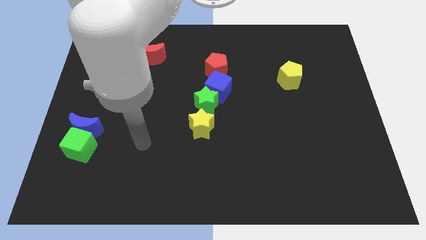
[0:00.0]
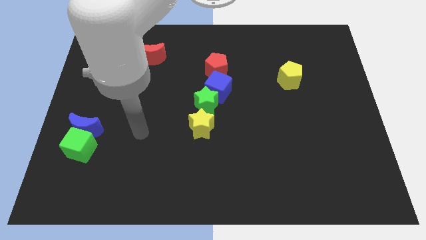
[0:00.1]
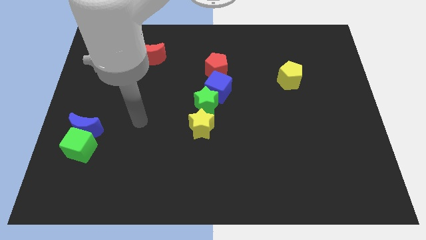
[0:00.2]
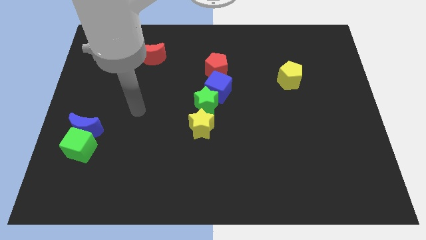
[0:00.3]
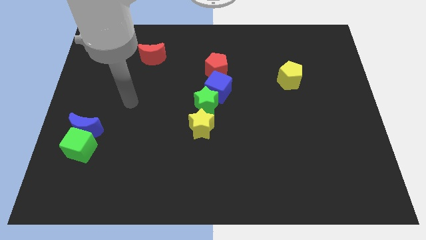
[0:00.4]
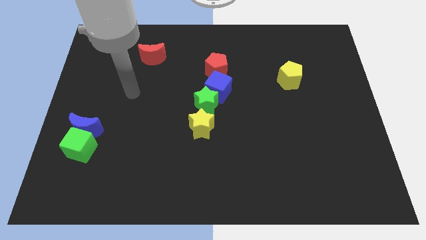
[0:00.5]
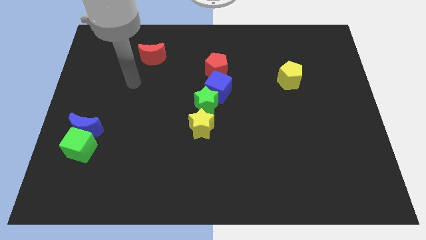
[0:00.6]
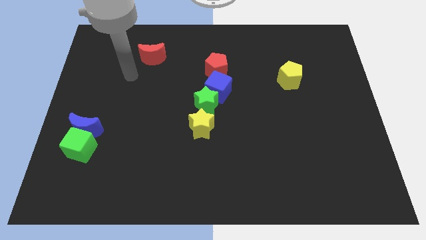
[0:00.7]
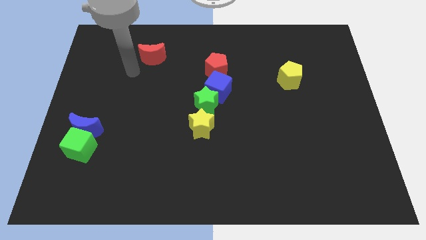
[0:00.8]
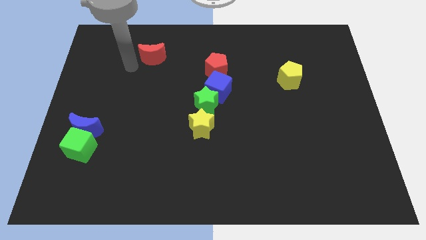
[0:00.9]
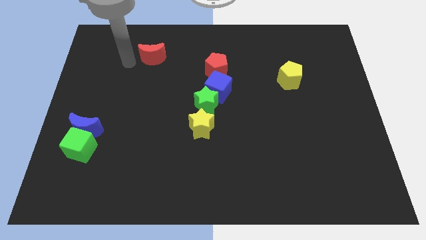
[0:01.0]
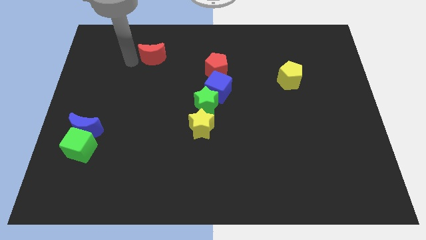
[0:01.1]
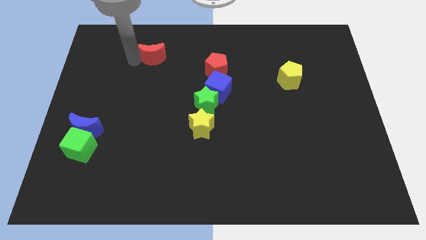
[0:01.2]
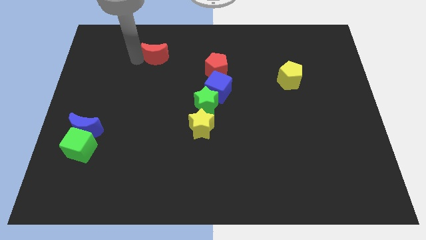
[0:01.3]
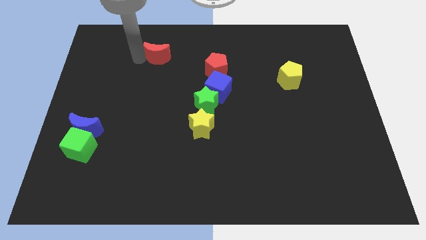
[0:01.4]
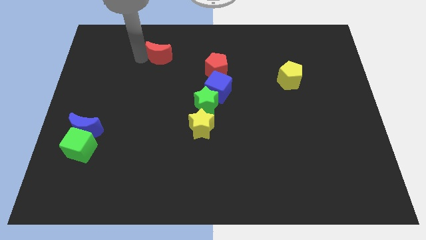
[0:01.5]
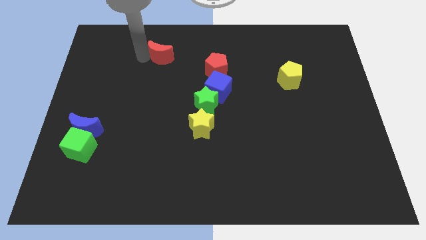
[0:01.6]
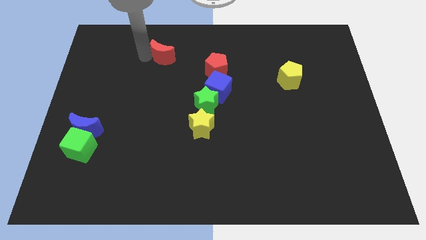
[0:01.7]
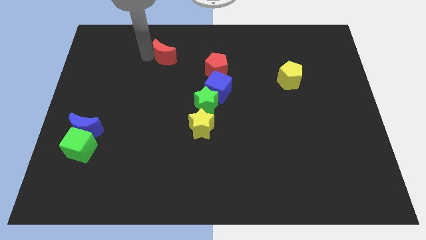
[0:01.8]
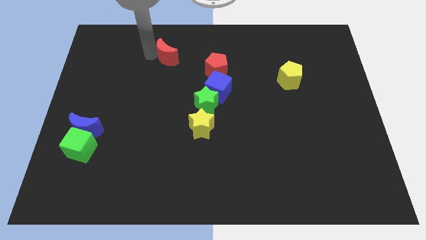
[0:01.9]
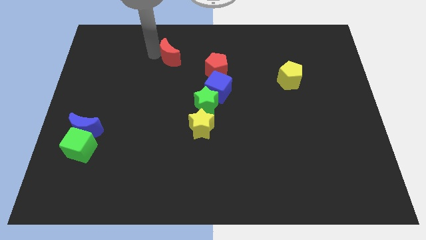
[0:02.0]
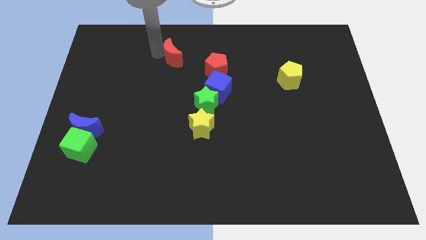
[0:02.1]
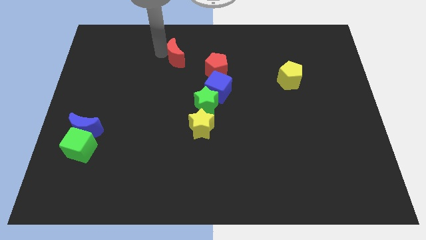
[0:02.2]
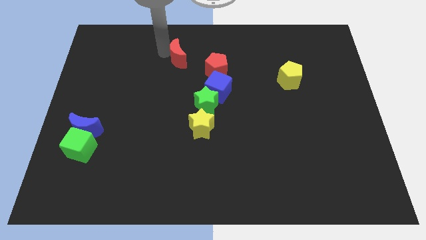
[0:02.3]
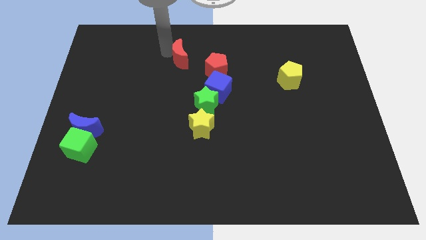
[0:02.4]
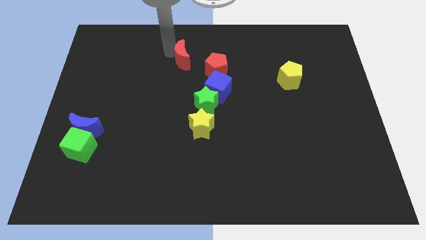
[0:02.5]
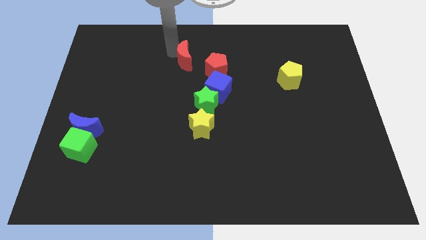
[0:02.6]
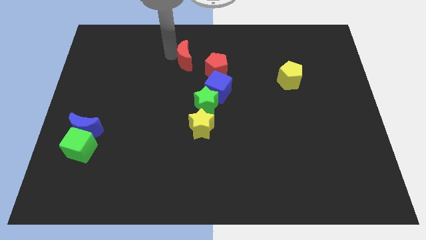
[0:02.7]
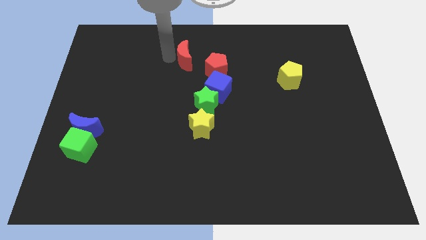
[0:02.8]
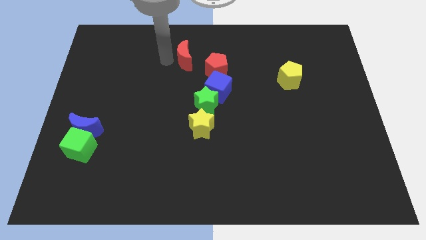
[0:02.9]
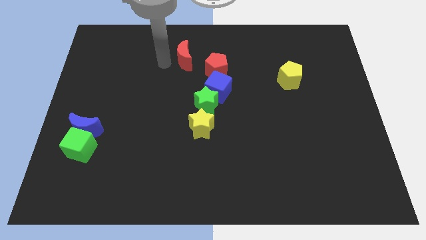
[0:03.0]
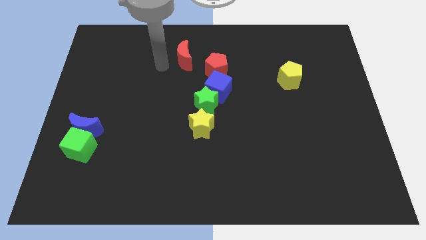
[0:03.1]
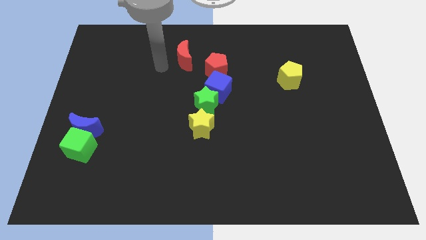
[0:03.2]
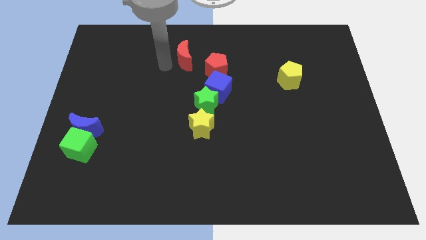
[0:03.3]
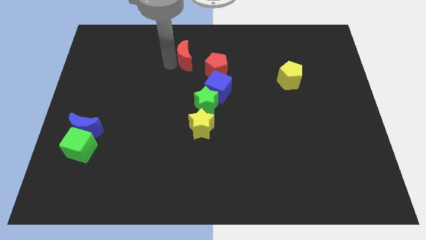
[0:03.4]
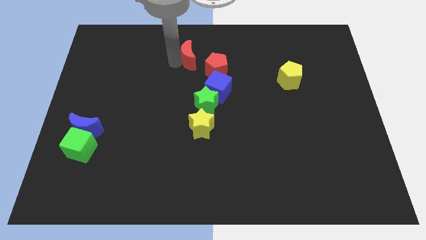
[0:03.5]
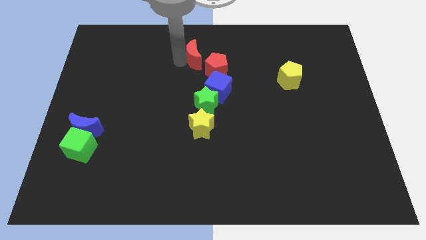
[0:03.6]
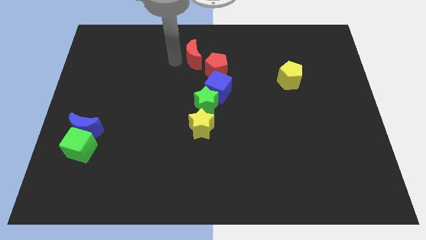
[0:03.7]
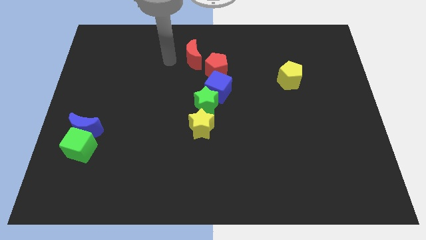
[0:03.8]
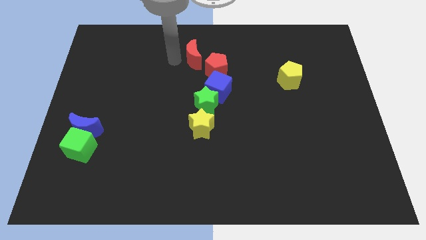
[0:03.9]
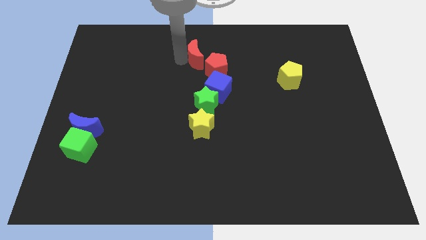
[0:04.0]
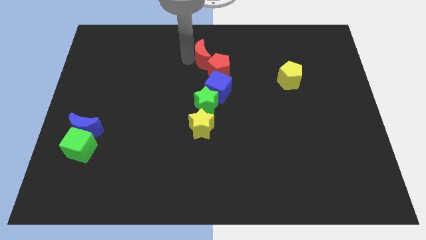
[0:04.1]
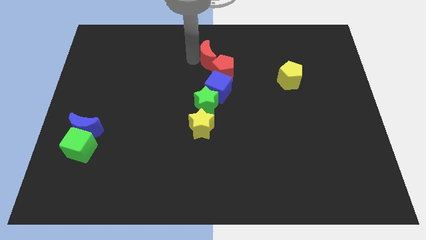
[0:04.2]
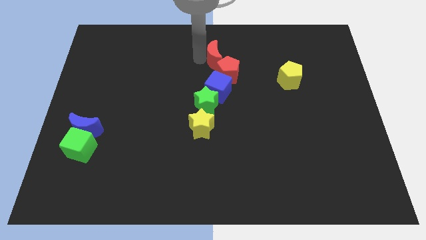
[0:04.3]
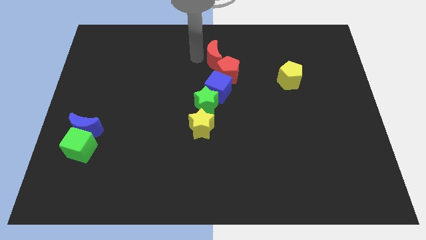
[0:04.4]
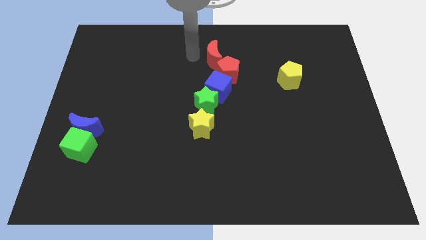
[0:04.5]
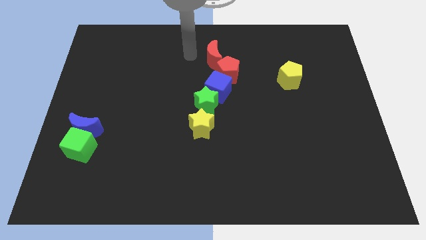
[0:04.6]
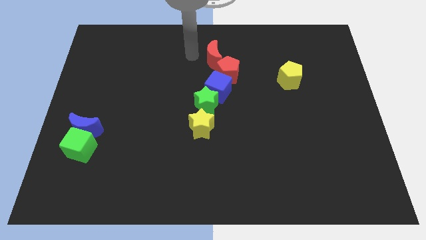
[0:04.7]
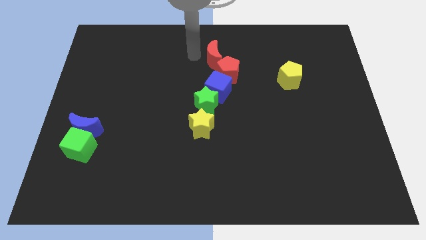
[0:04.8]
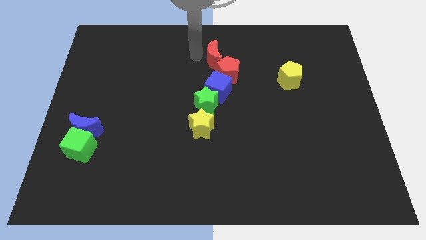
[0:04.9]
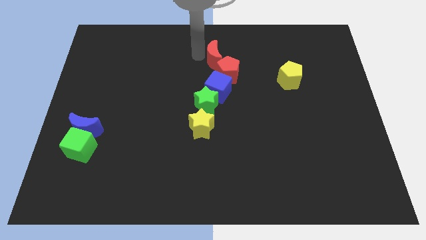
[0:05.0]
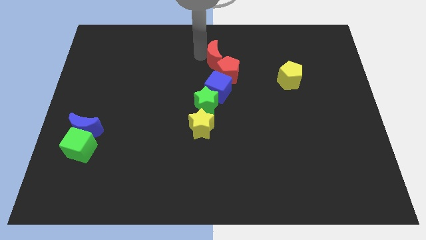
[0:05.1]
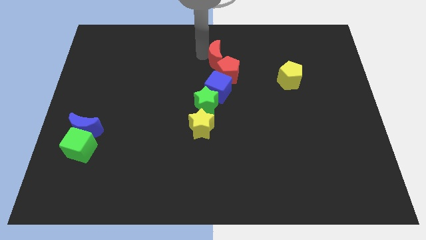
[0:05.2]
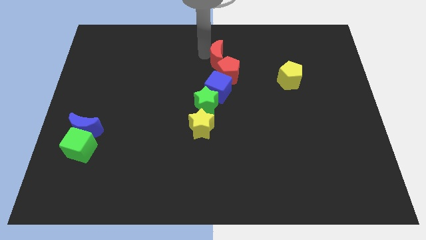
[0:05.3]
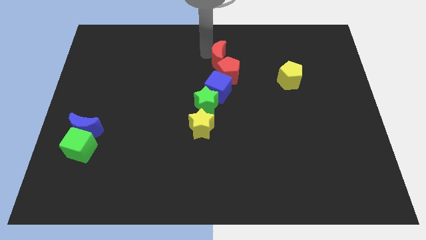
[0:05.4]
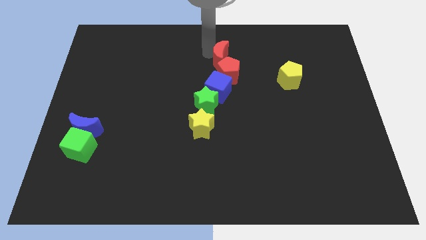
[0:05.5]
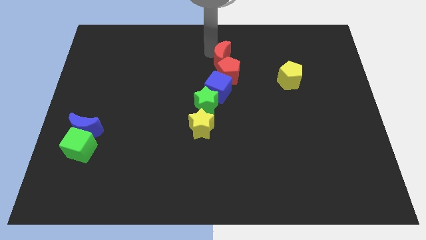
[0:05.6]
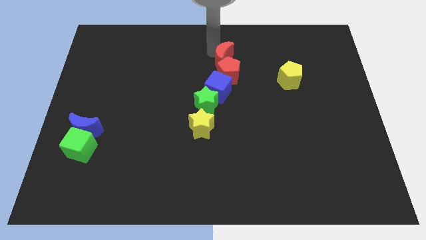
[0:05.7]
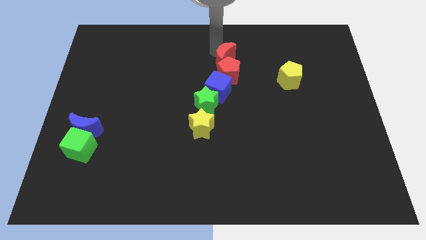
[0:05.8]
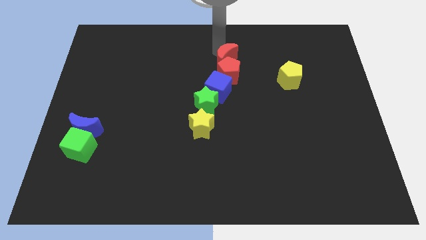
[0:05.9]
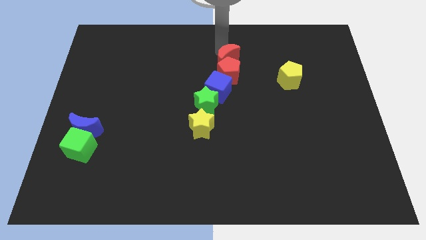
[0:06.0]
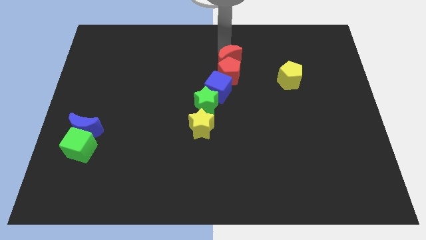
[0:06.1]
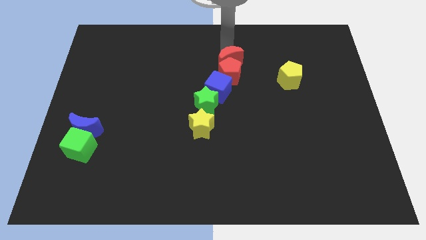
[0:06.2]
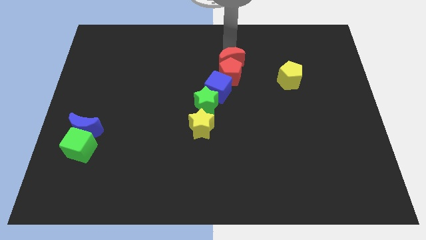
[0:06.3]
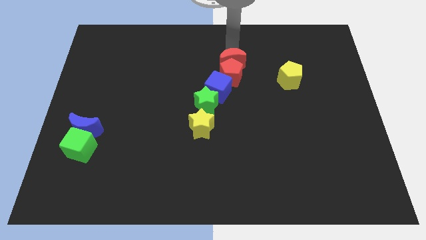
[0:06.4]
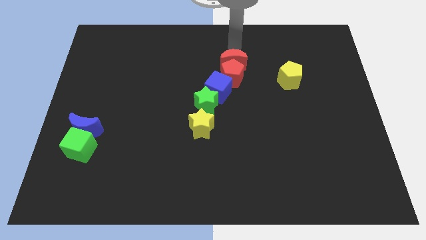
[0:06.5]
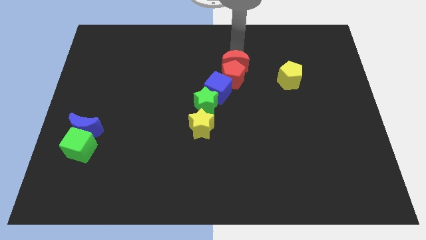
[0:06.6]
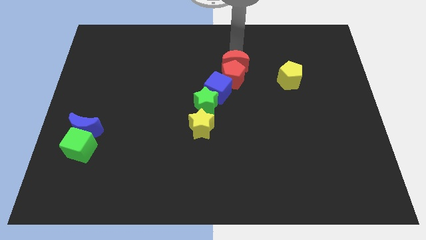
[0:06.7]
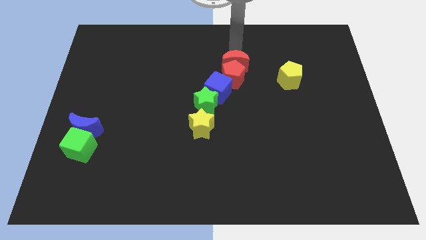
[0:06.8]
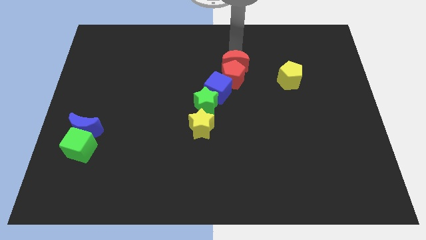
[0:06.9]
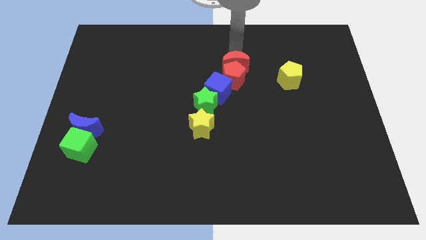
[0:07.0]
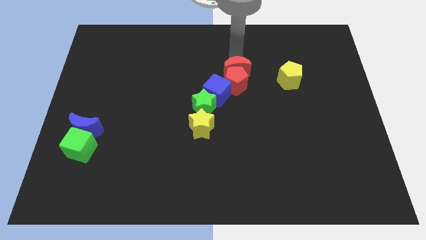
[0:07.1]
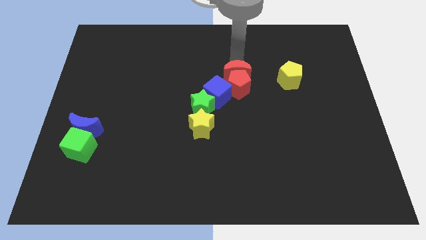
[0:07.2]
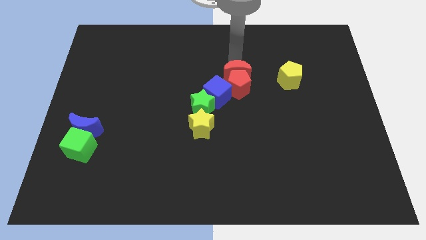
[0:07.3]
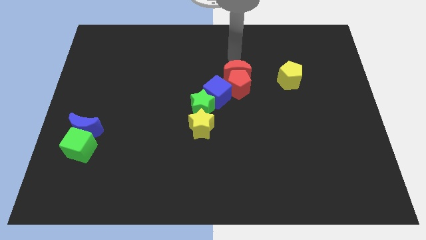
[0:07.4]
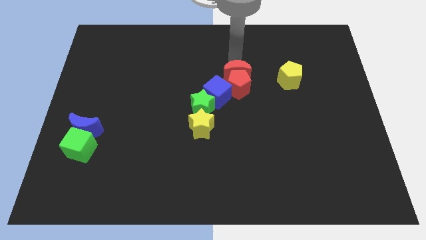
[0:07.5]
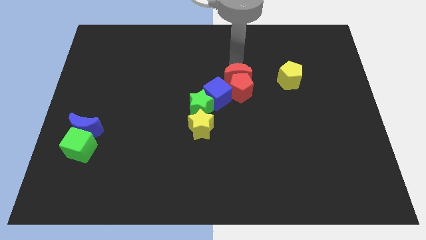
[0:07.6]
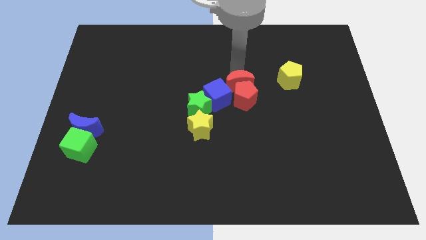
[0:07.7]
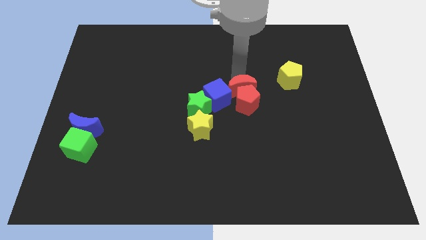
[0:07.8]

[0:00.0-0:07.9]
slide the red moon down and then right

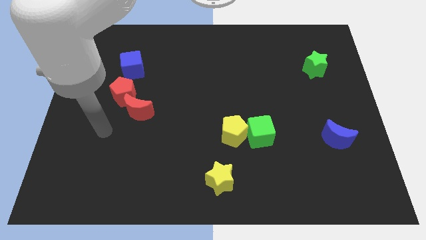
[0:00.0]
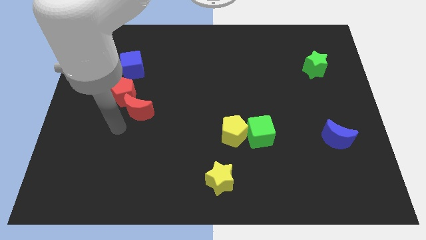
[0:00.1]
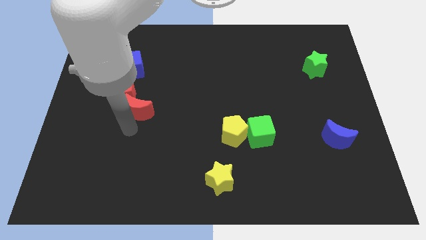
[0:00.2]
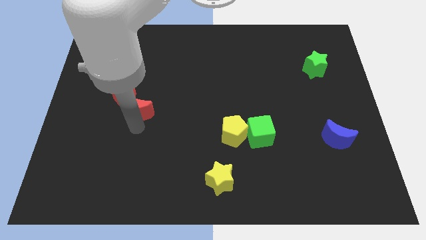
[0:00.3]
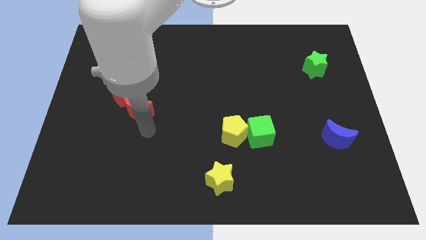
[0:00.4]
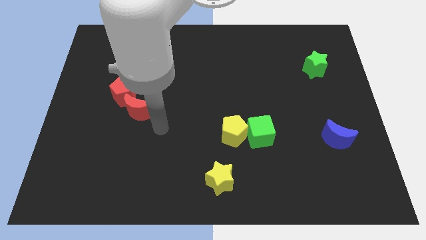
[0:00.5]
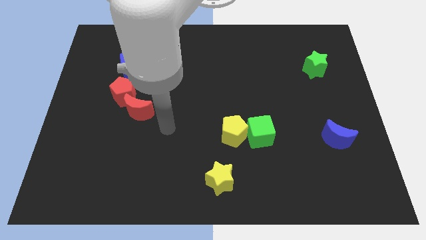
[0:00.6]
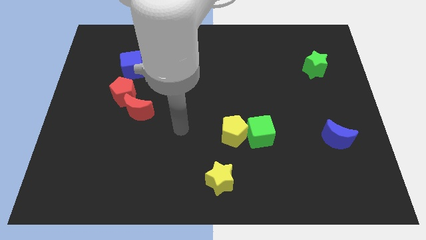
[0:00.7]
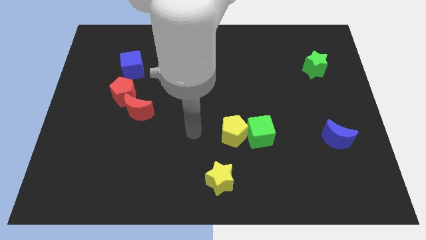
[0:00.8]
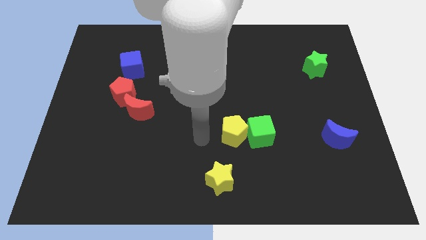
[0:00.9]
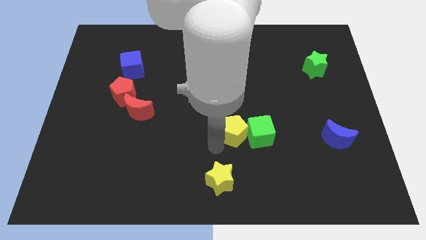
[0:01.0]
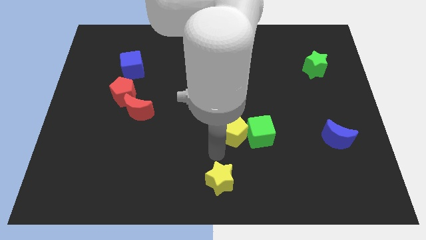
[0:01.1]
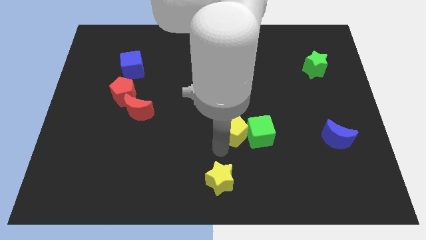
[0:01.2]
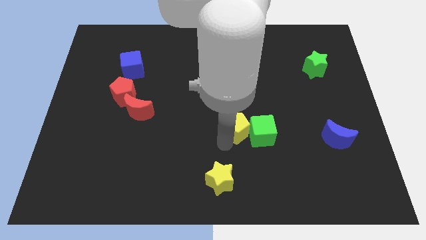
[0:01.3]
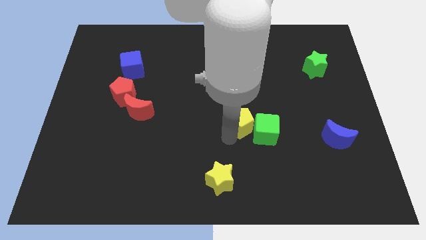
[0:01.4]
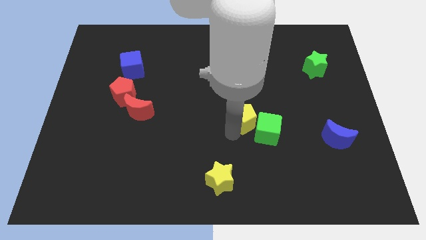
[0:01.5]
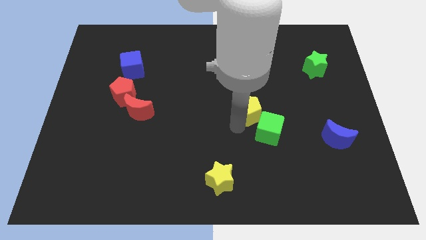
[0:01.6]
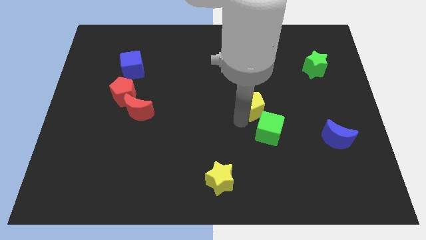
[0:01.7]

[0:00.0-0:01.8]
slightly push the yellow pentagon up and then to the right
